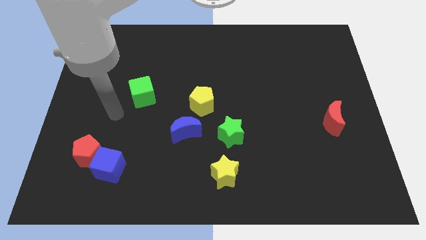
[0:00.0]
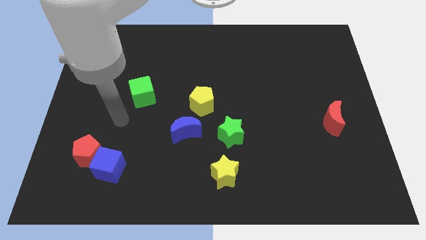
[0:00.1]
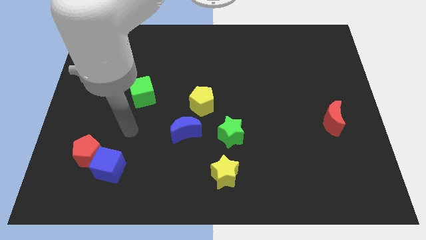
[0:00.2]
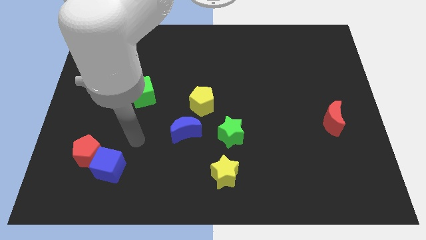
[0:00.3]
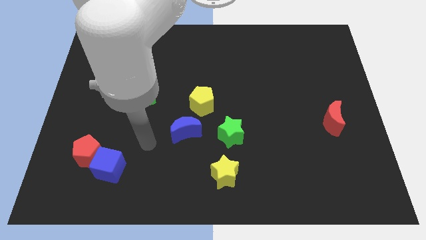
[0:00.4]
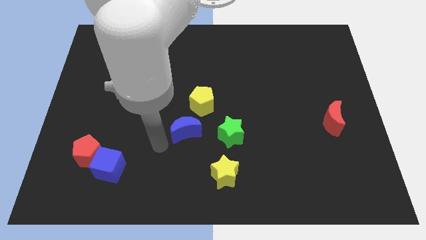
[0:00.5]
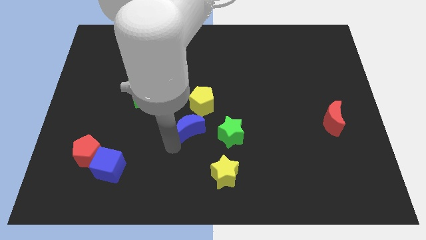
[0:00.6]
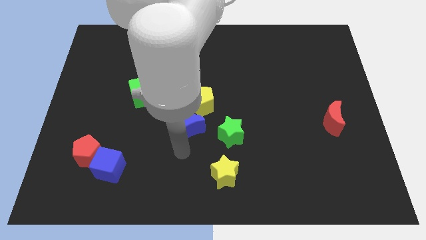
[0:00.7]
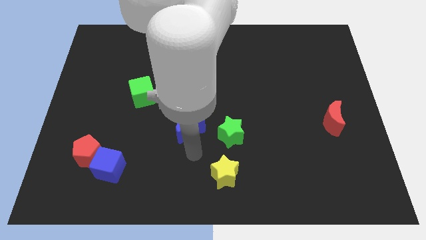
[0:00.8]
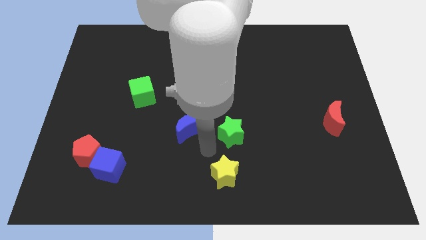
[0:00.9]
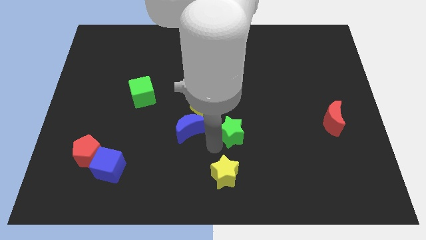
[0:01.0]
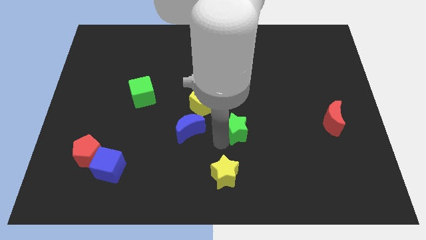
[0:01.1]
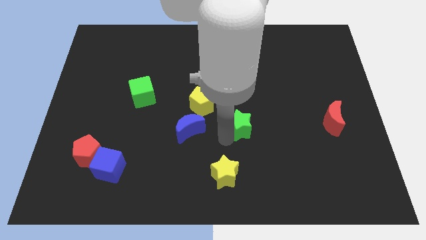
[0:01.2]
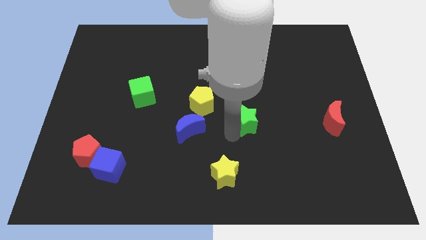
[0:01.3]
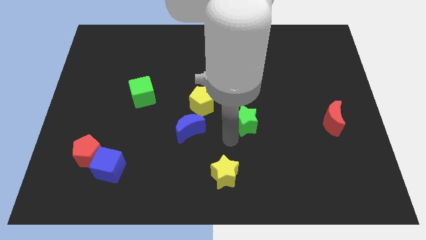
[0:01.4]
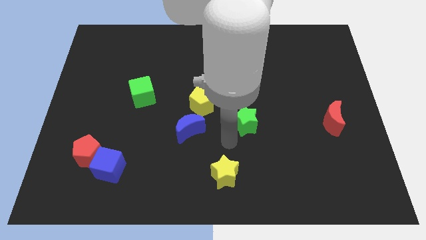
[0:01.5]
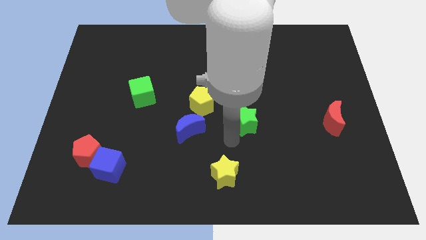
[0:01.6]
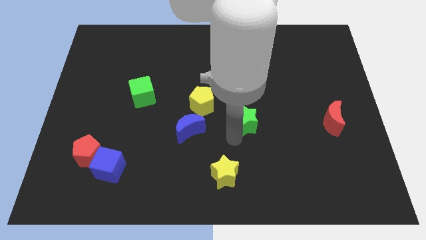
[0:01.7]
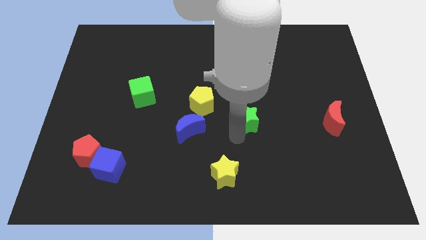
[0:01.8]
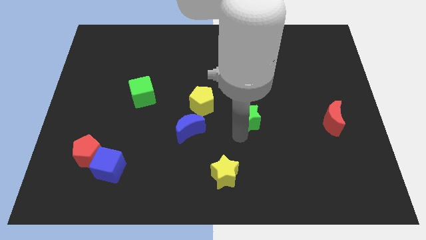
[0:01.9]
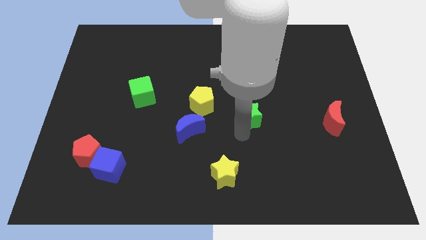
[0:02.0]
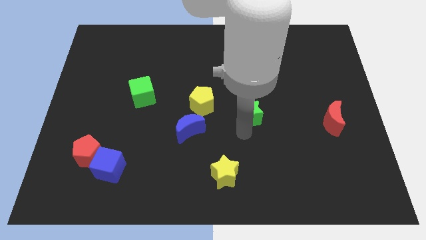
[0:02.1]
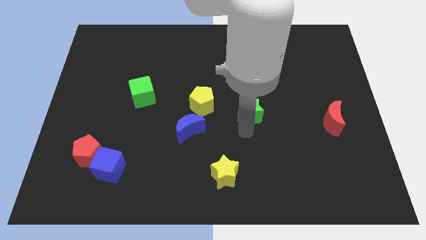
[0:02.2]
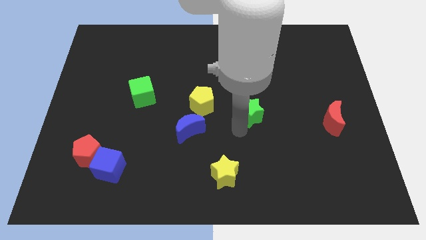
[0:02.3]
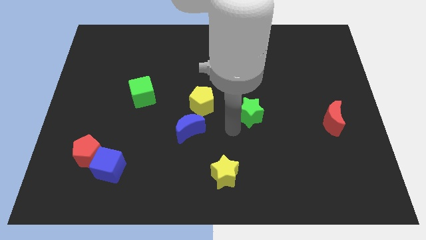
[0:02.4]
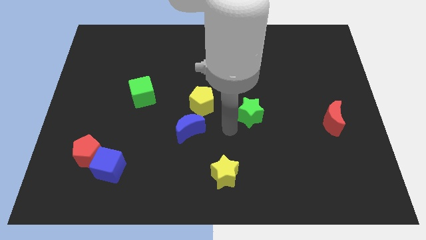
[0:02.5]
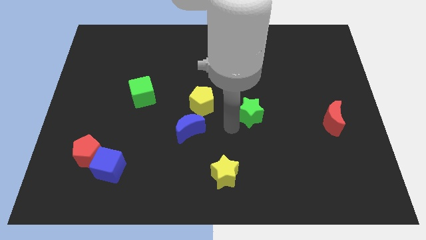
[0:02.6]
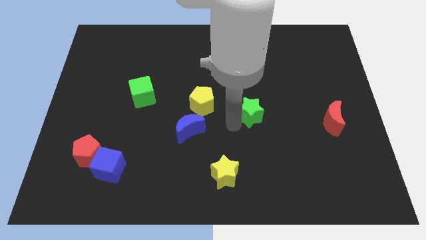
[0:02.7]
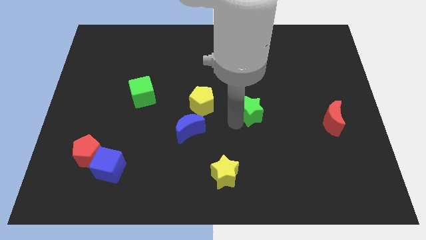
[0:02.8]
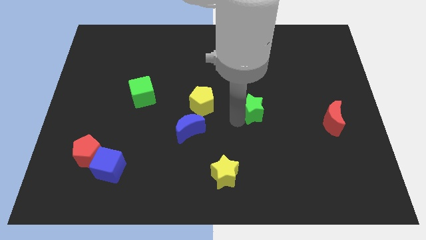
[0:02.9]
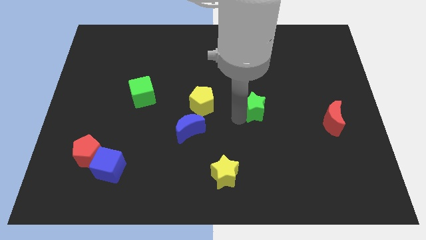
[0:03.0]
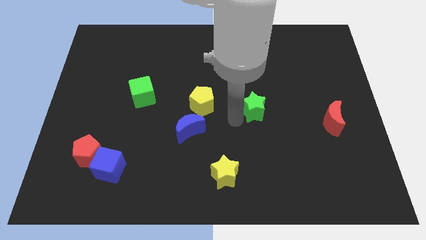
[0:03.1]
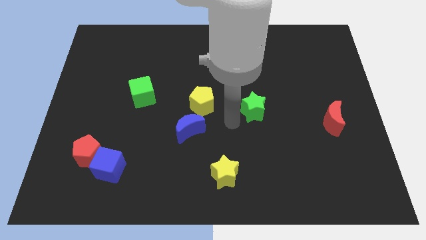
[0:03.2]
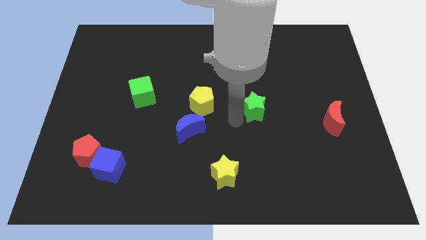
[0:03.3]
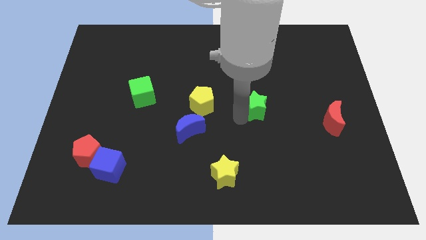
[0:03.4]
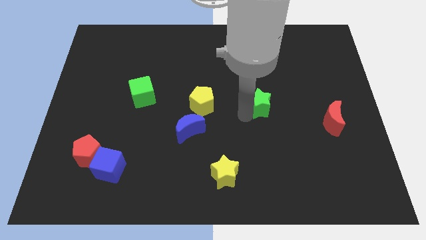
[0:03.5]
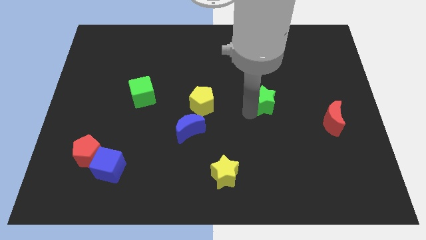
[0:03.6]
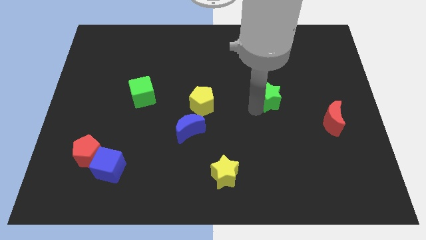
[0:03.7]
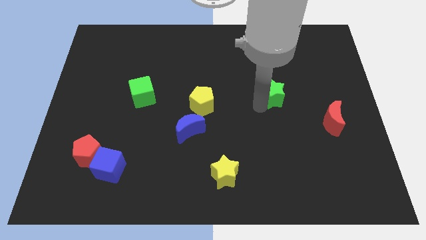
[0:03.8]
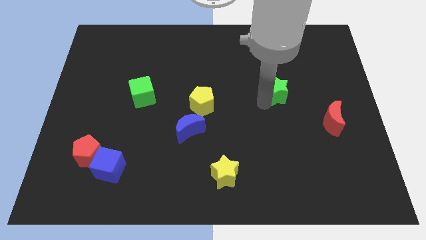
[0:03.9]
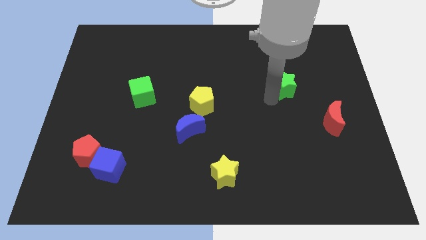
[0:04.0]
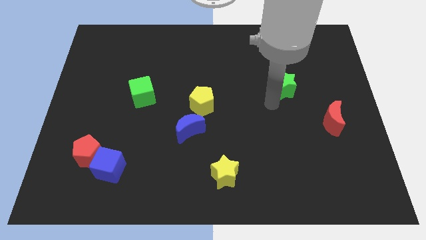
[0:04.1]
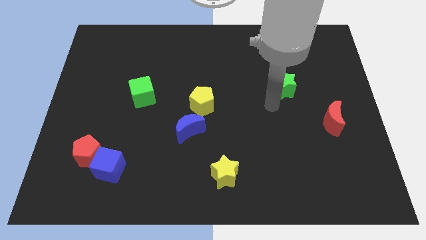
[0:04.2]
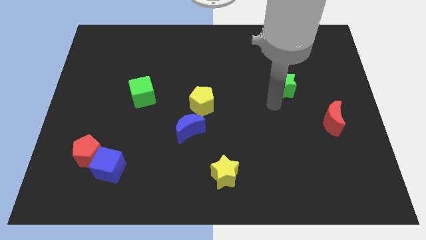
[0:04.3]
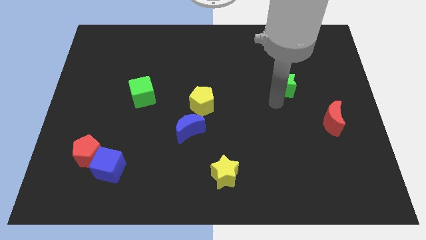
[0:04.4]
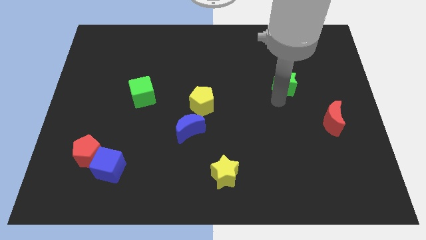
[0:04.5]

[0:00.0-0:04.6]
move the green star upwards and then to the right

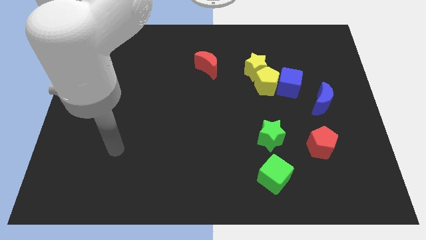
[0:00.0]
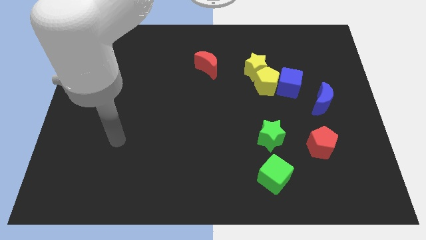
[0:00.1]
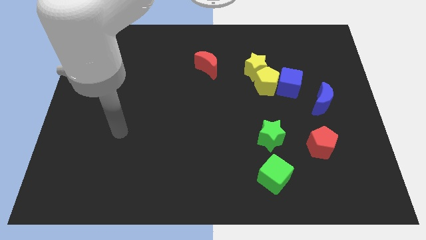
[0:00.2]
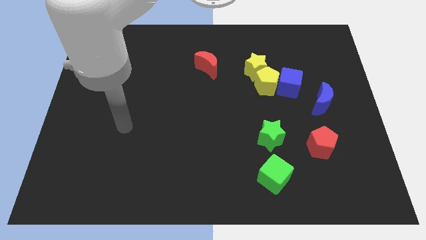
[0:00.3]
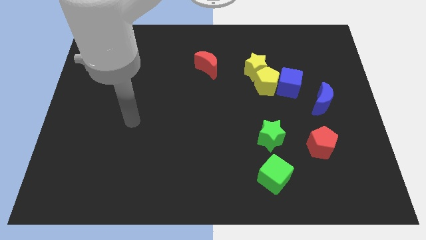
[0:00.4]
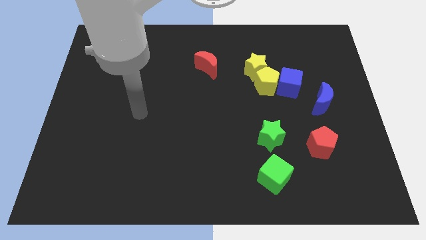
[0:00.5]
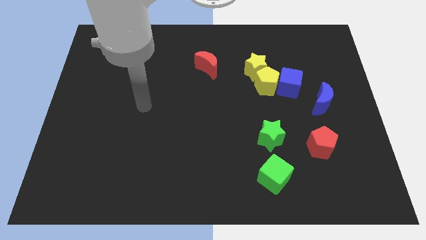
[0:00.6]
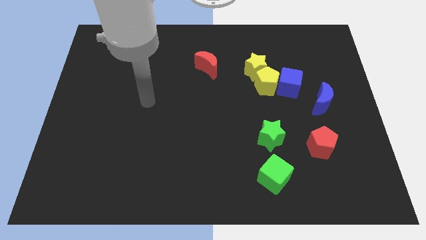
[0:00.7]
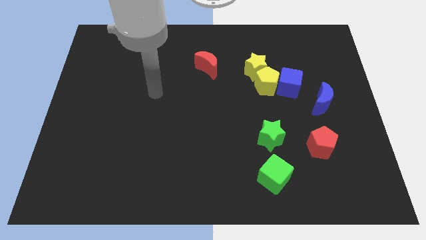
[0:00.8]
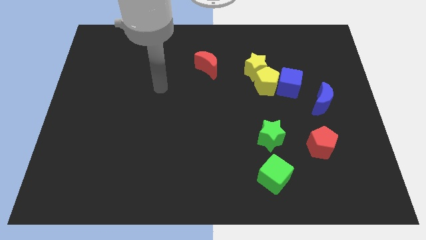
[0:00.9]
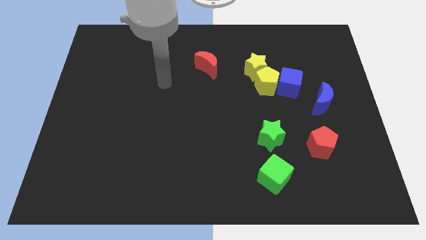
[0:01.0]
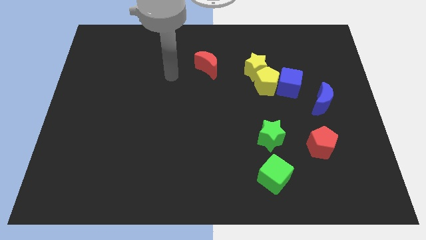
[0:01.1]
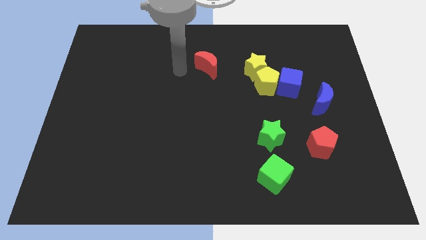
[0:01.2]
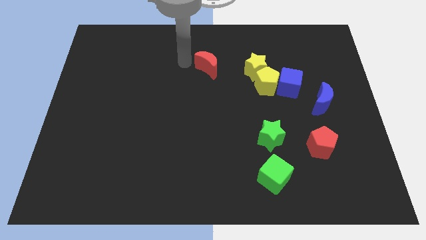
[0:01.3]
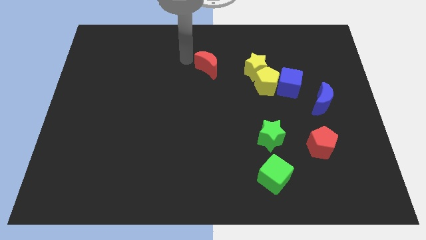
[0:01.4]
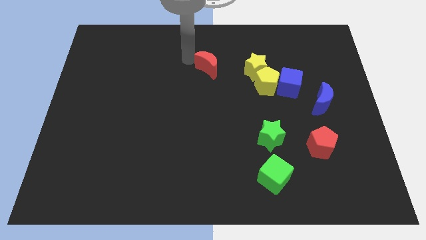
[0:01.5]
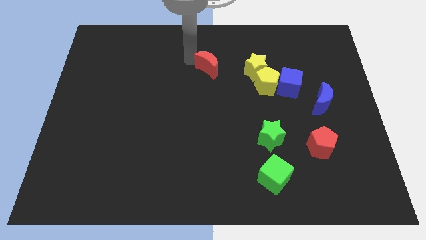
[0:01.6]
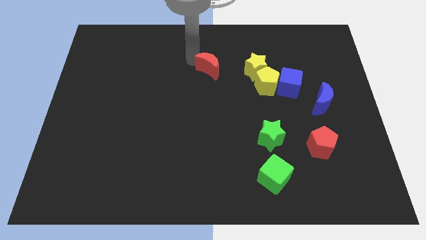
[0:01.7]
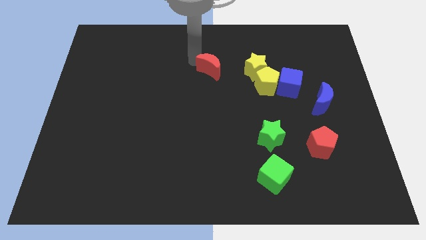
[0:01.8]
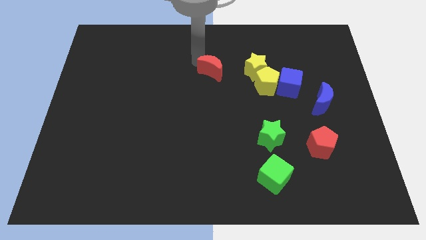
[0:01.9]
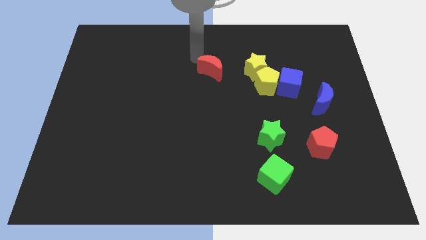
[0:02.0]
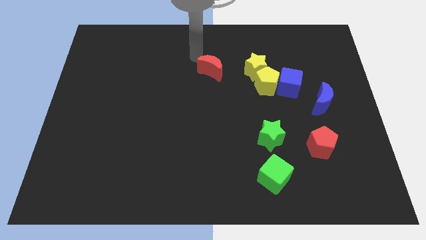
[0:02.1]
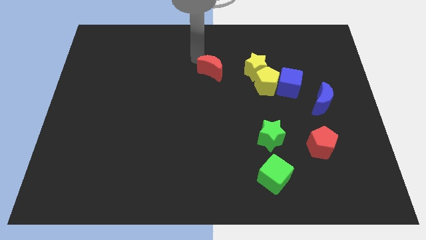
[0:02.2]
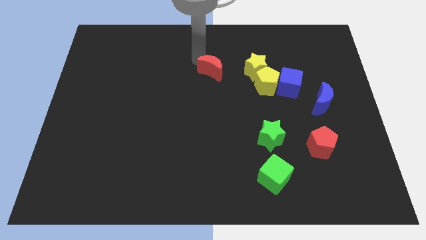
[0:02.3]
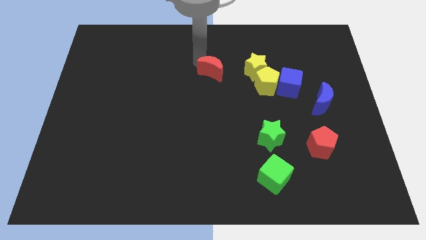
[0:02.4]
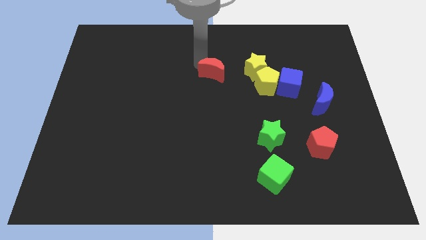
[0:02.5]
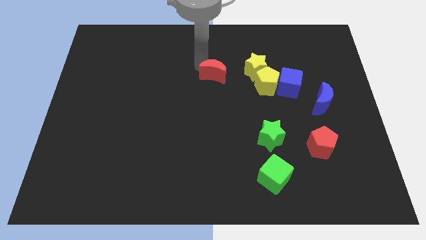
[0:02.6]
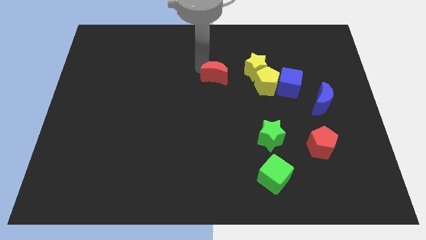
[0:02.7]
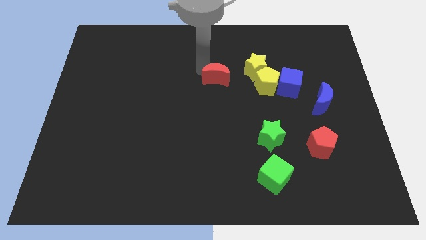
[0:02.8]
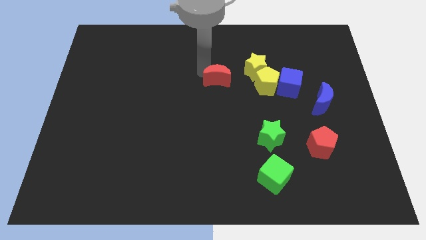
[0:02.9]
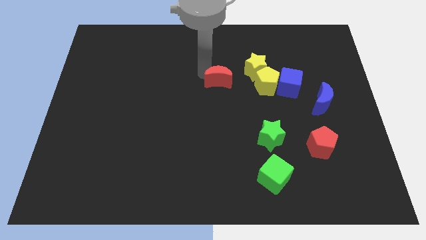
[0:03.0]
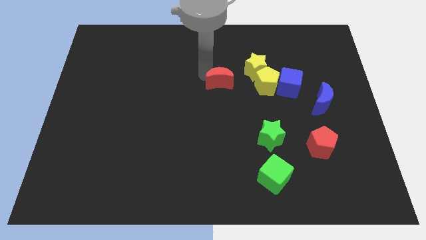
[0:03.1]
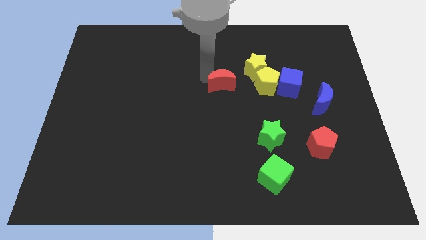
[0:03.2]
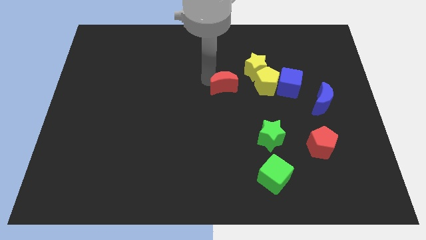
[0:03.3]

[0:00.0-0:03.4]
slide the red moon a little downwards and then to the right

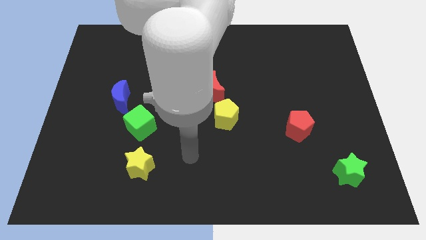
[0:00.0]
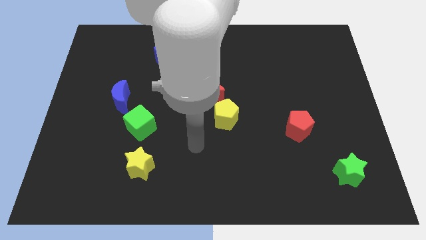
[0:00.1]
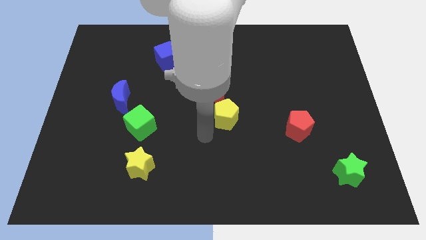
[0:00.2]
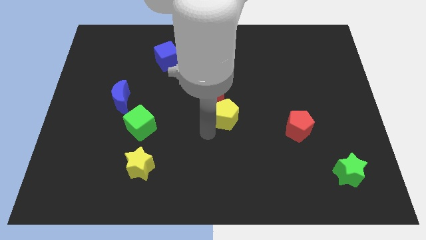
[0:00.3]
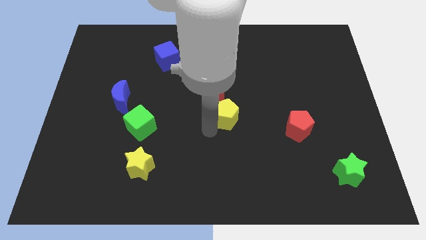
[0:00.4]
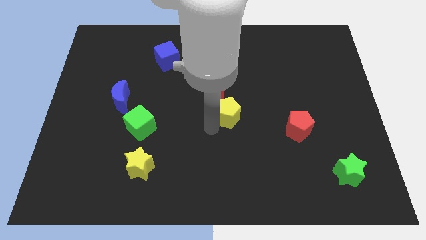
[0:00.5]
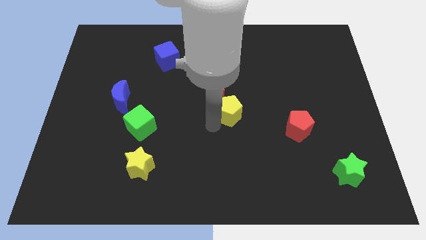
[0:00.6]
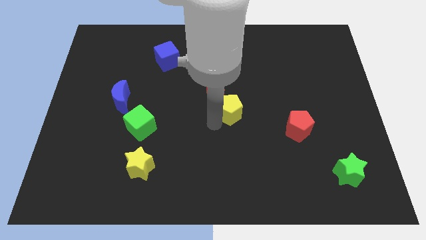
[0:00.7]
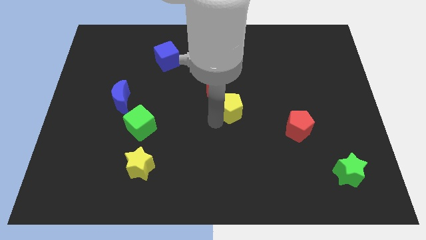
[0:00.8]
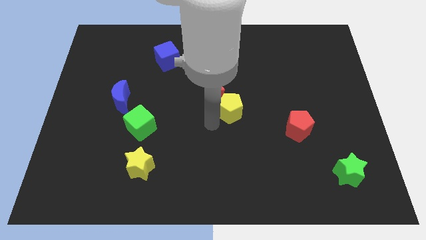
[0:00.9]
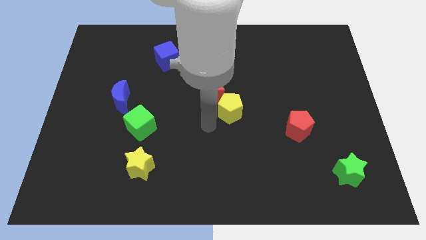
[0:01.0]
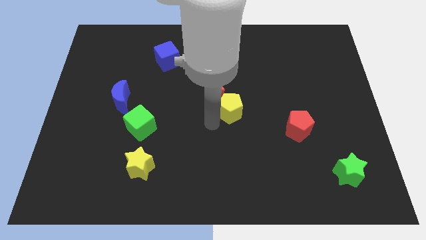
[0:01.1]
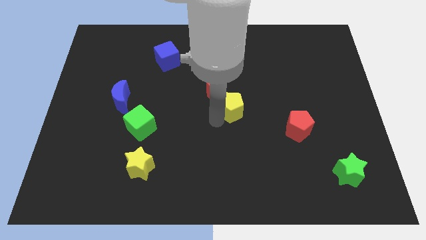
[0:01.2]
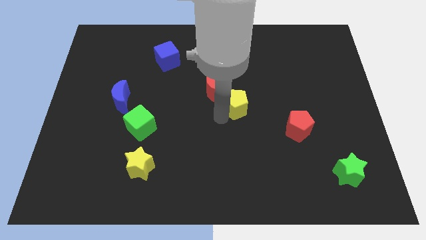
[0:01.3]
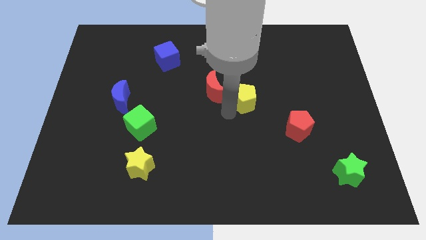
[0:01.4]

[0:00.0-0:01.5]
slightly slide the yellow pentagon upwards and then right
